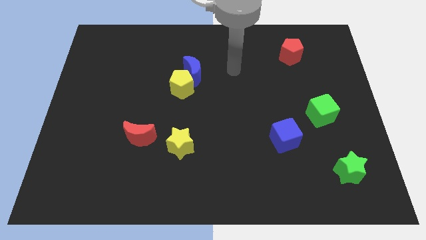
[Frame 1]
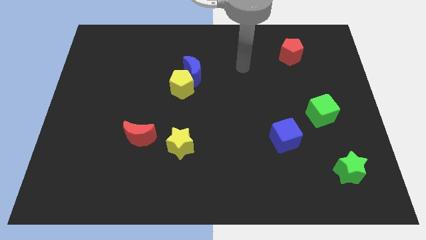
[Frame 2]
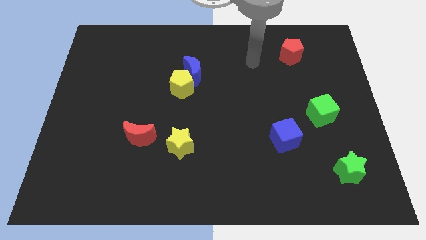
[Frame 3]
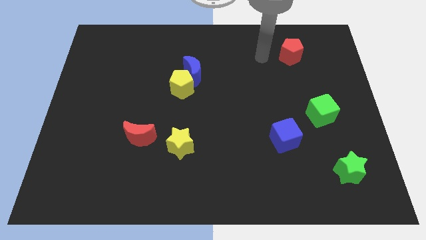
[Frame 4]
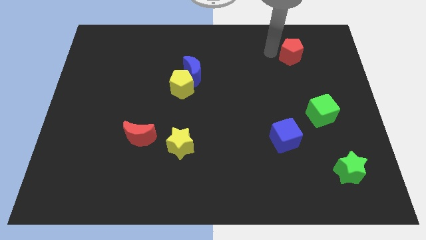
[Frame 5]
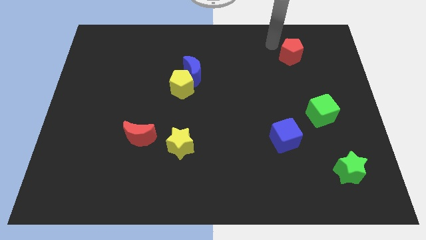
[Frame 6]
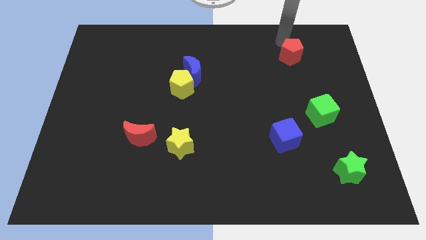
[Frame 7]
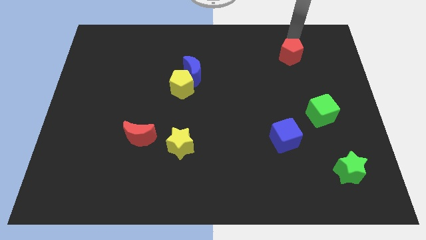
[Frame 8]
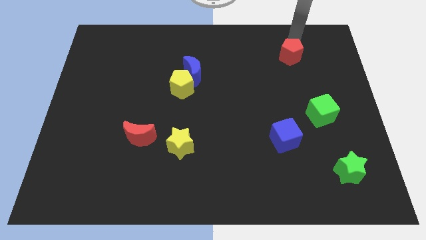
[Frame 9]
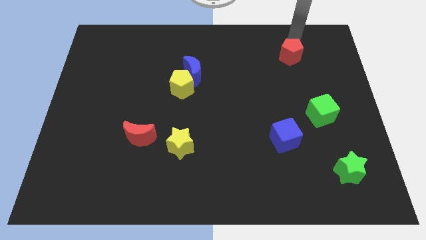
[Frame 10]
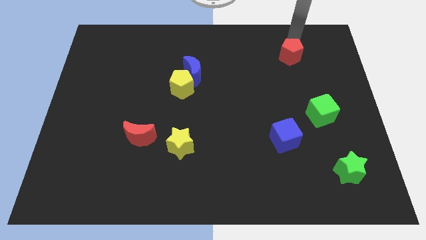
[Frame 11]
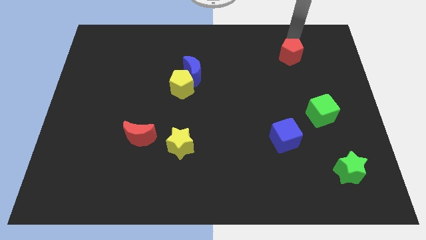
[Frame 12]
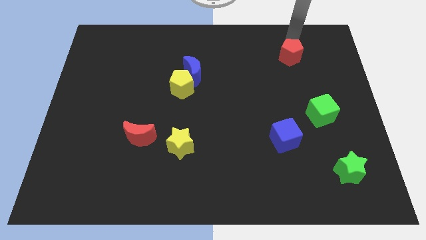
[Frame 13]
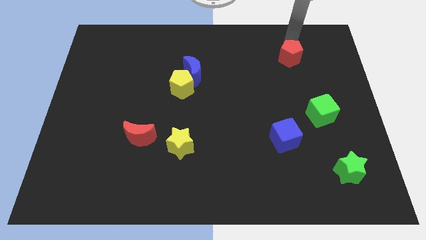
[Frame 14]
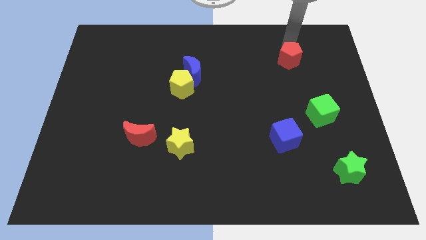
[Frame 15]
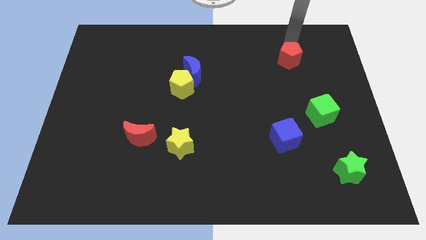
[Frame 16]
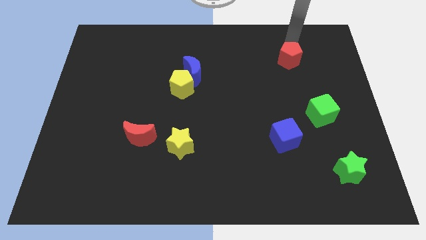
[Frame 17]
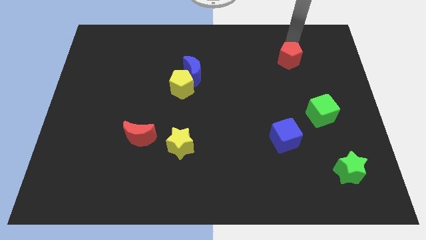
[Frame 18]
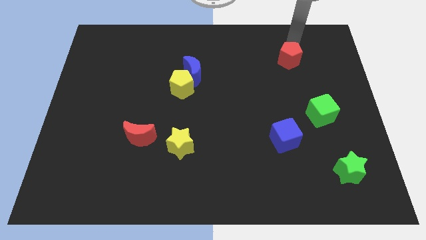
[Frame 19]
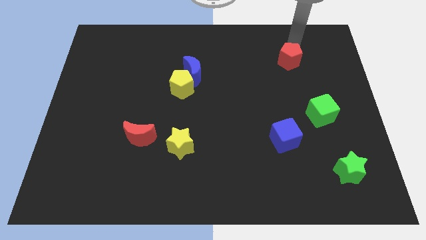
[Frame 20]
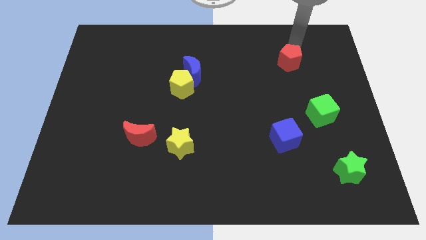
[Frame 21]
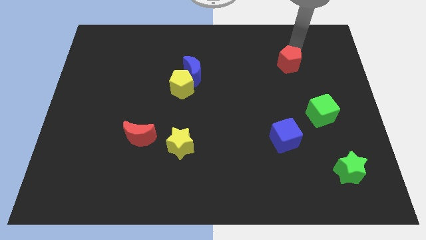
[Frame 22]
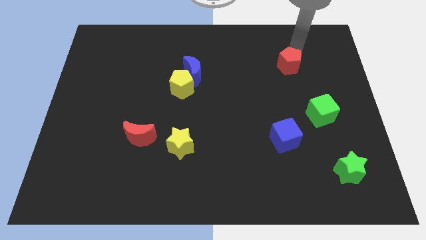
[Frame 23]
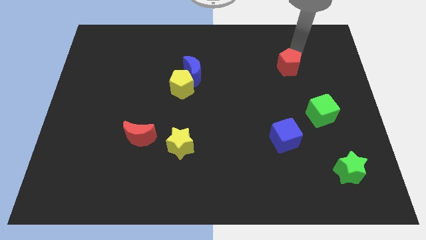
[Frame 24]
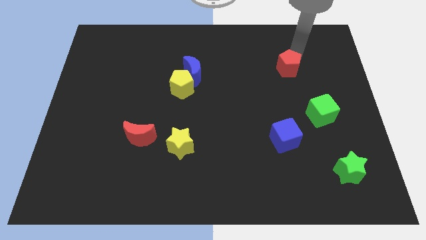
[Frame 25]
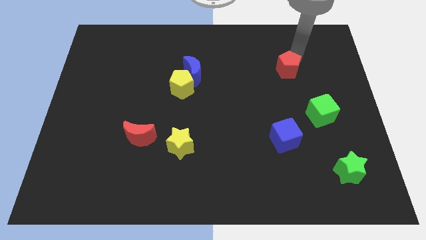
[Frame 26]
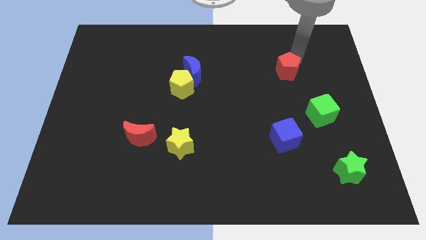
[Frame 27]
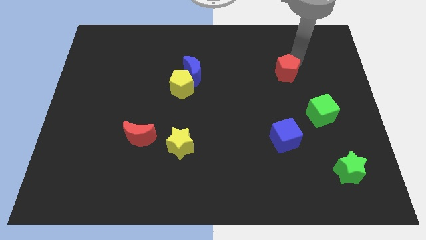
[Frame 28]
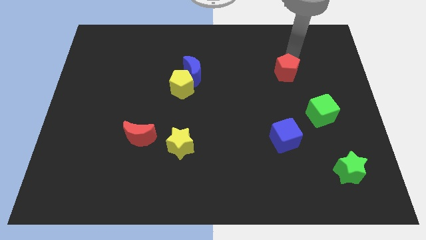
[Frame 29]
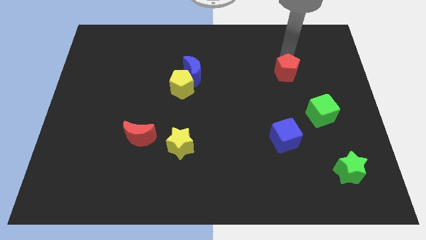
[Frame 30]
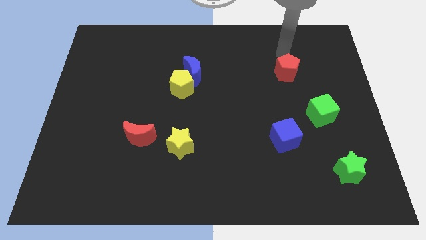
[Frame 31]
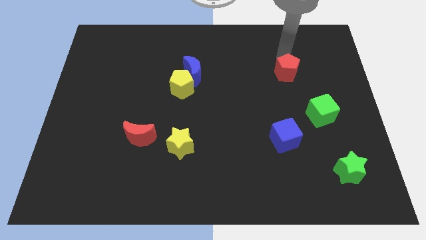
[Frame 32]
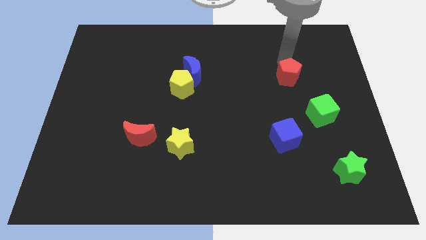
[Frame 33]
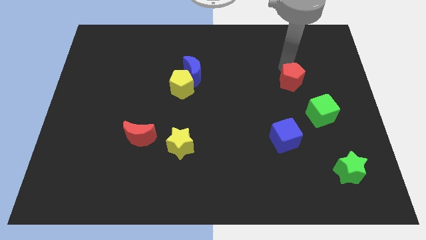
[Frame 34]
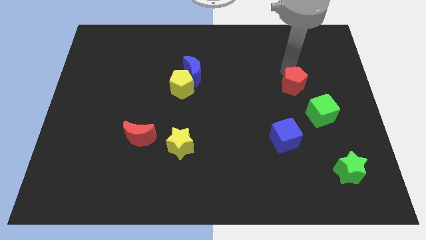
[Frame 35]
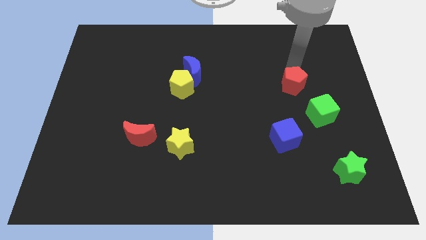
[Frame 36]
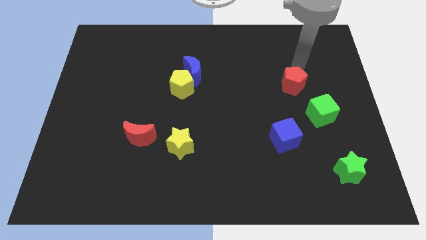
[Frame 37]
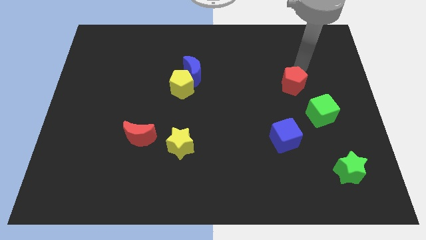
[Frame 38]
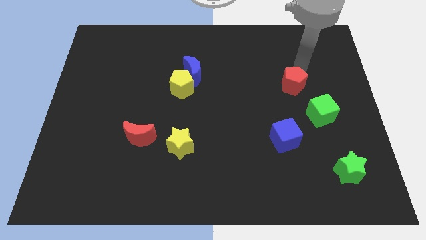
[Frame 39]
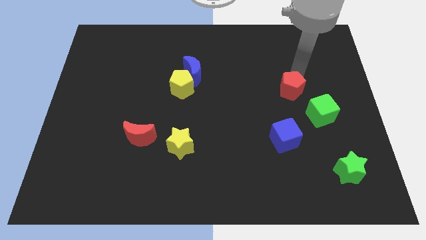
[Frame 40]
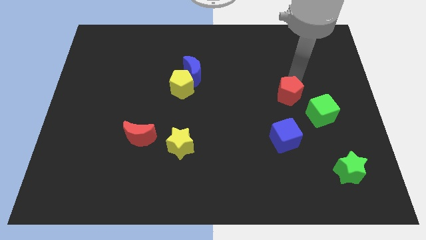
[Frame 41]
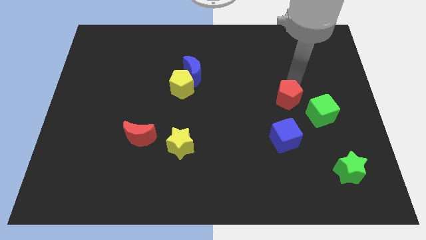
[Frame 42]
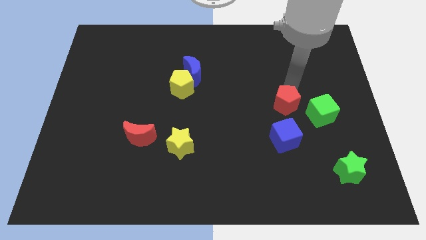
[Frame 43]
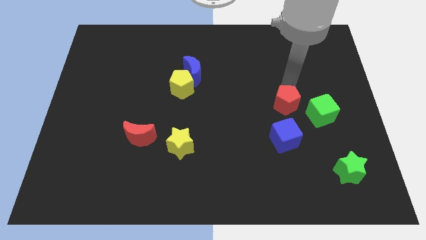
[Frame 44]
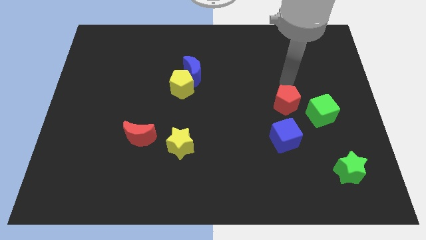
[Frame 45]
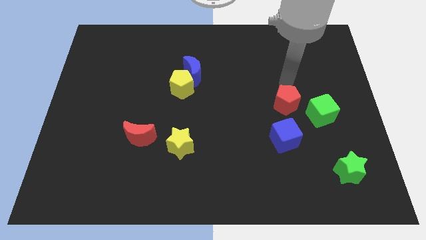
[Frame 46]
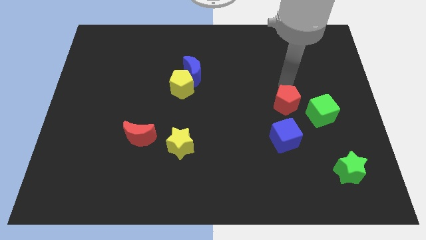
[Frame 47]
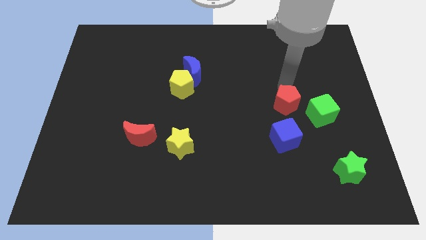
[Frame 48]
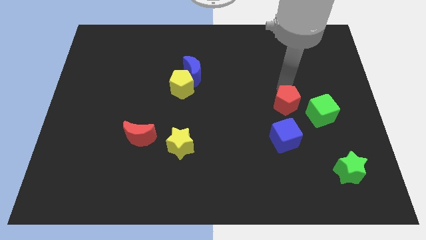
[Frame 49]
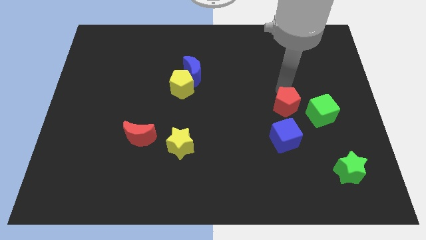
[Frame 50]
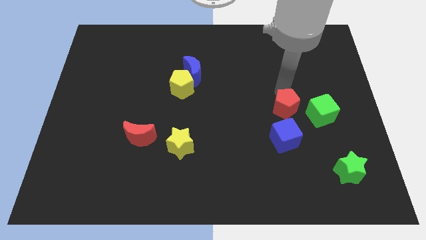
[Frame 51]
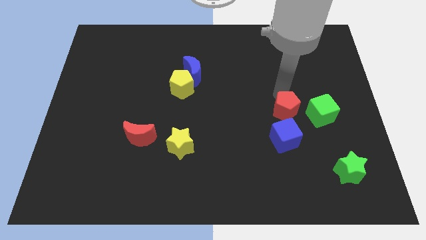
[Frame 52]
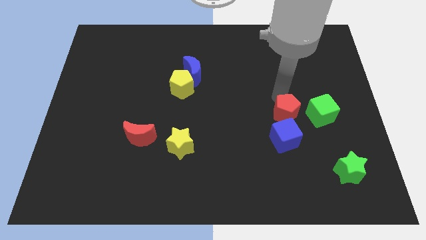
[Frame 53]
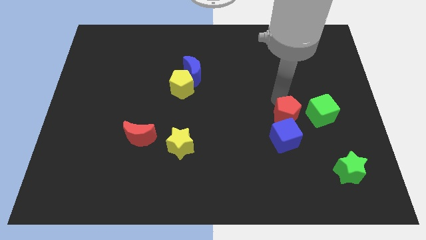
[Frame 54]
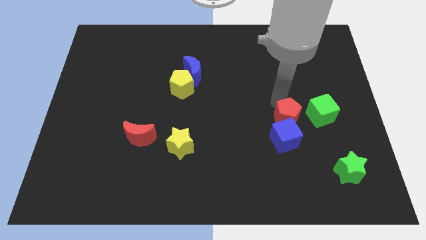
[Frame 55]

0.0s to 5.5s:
slide the red pentagon next to the blue cube
